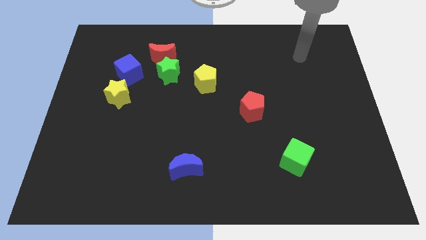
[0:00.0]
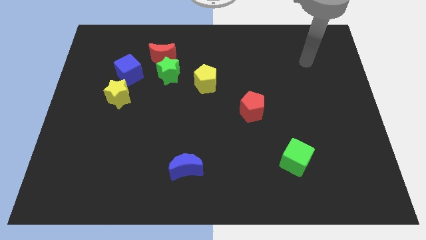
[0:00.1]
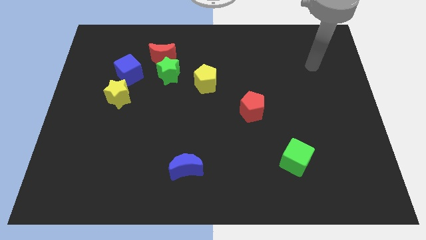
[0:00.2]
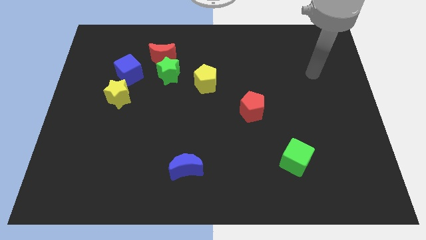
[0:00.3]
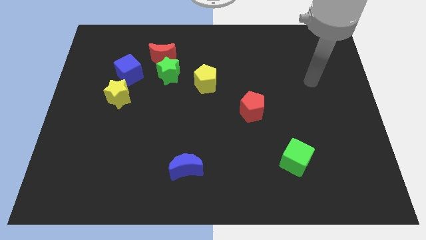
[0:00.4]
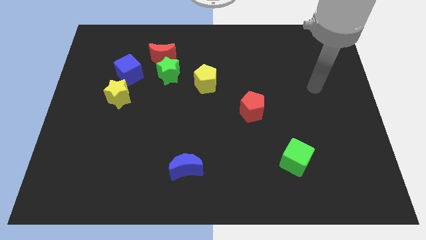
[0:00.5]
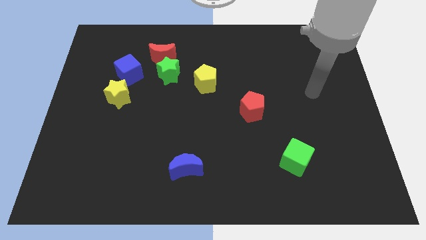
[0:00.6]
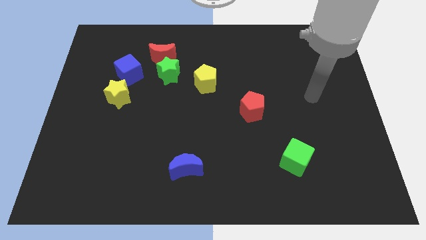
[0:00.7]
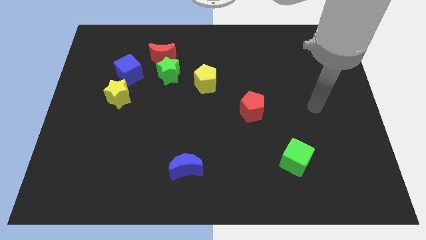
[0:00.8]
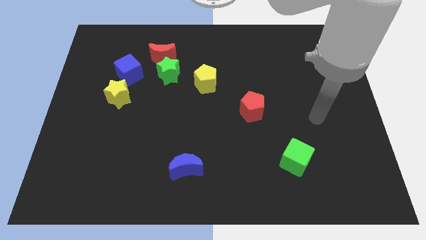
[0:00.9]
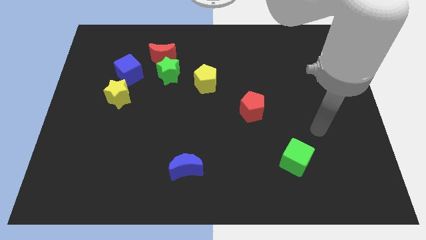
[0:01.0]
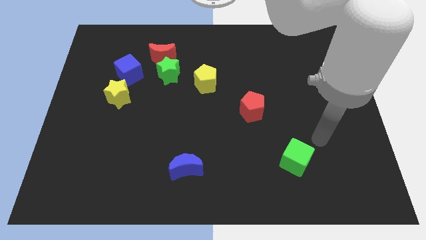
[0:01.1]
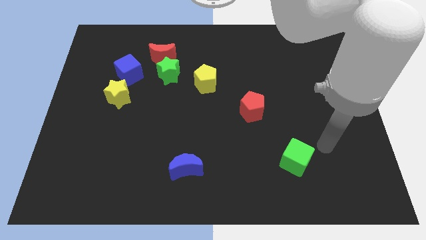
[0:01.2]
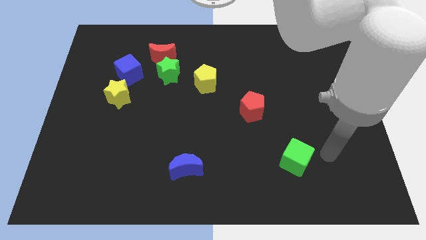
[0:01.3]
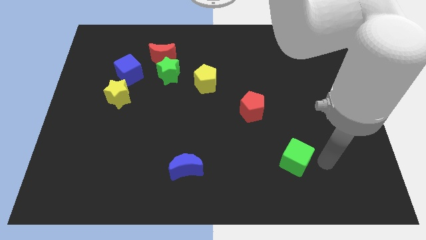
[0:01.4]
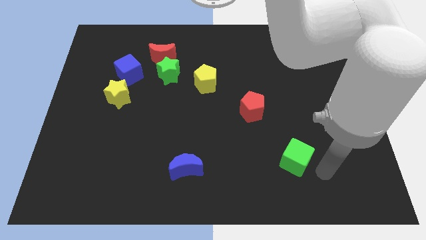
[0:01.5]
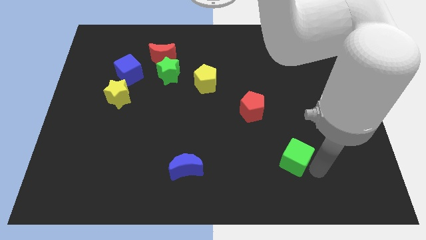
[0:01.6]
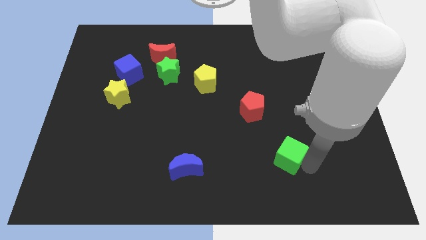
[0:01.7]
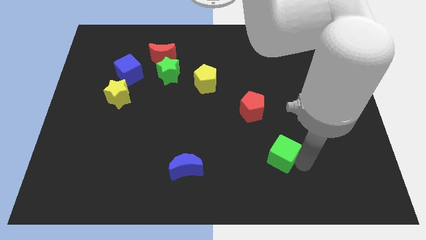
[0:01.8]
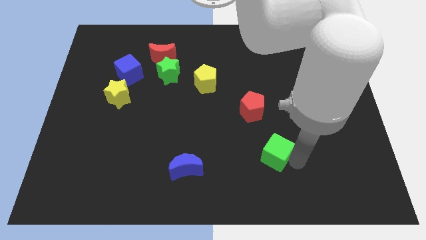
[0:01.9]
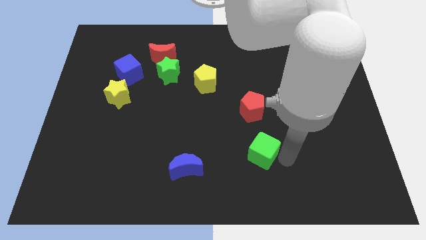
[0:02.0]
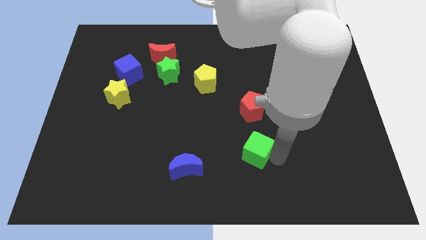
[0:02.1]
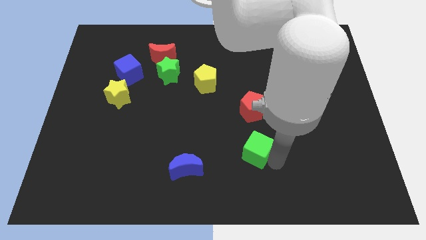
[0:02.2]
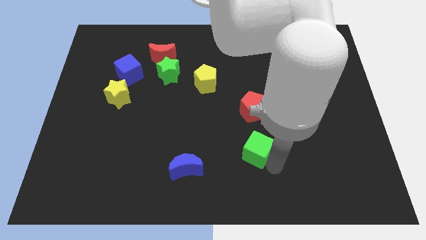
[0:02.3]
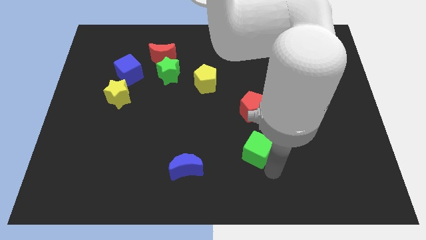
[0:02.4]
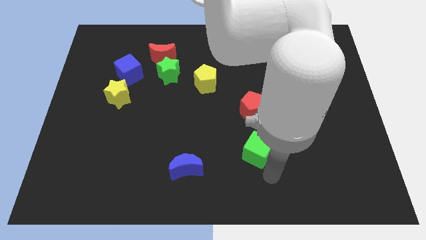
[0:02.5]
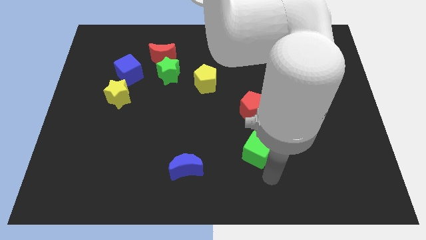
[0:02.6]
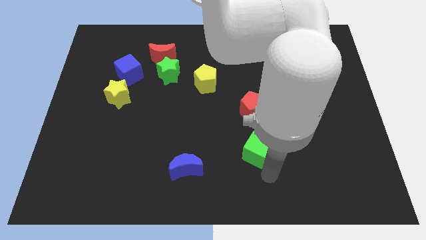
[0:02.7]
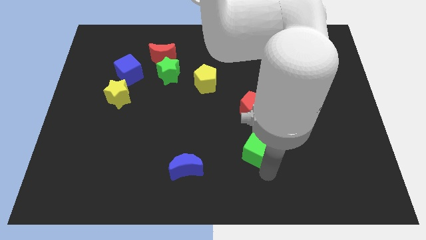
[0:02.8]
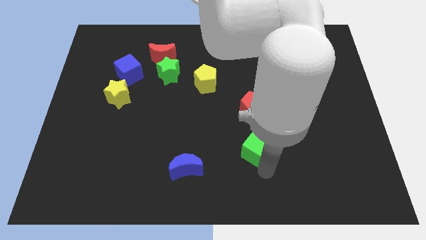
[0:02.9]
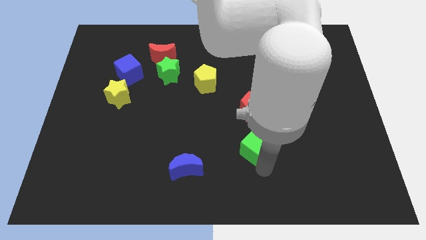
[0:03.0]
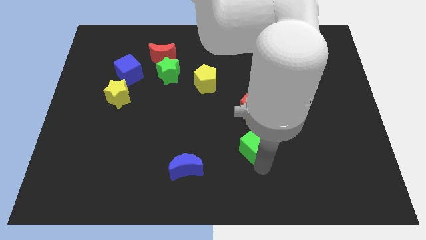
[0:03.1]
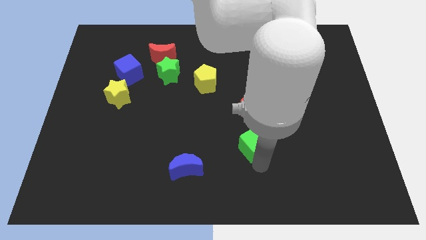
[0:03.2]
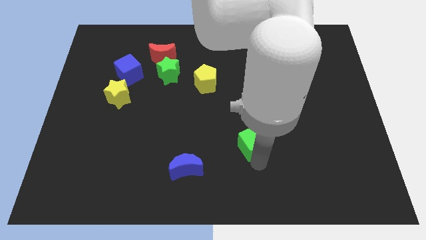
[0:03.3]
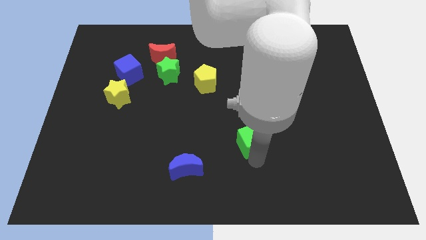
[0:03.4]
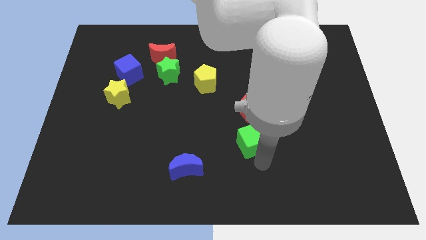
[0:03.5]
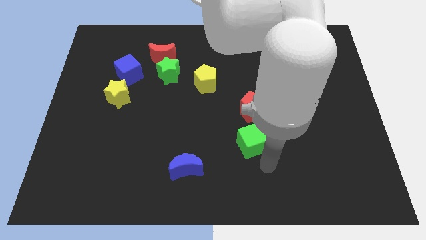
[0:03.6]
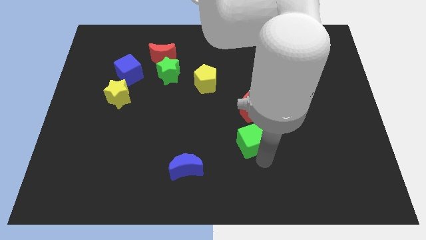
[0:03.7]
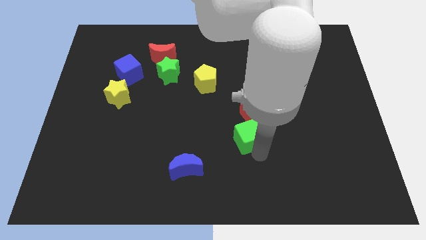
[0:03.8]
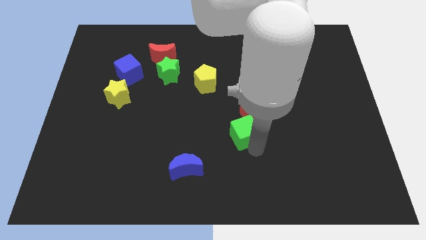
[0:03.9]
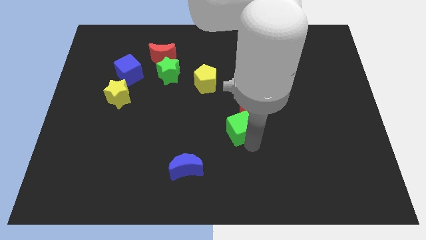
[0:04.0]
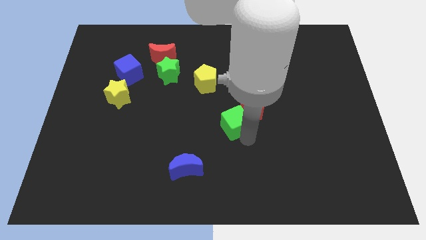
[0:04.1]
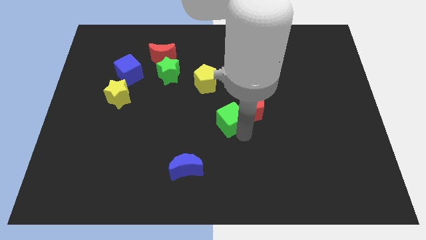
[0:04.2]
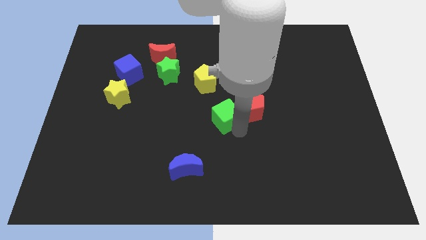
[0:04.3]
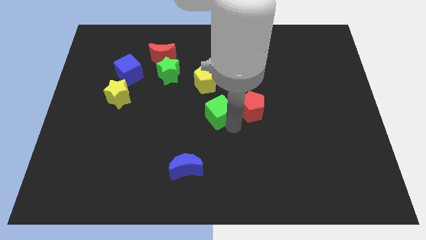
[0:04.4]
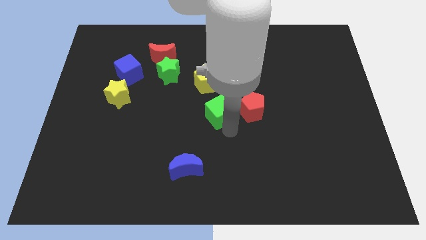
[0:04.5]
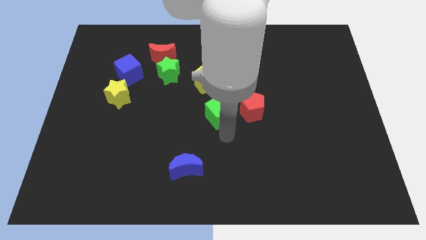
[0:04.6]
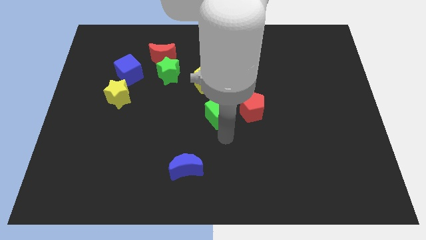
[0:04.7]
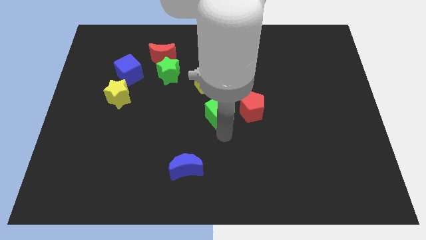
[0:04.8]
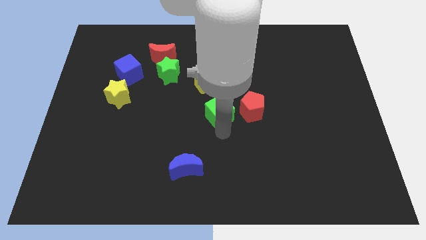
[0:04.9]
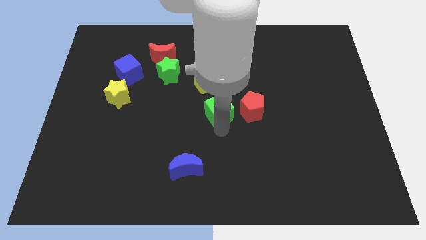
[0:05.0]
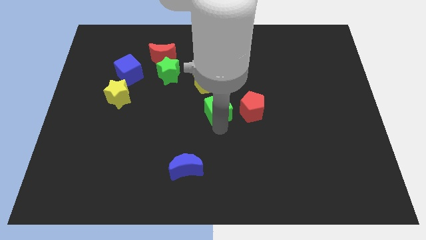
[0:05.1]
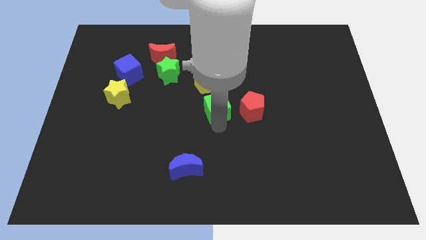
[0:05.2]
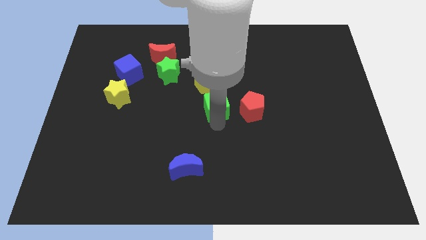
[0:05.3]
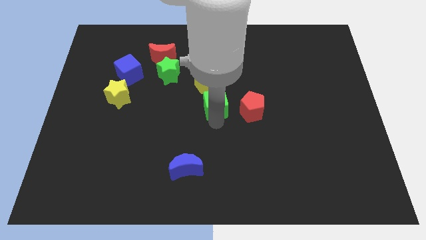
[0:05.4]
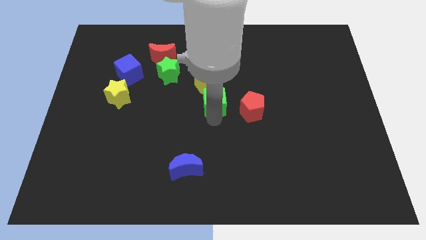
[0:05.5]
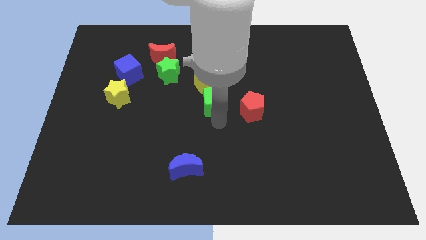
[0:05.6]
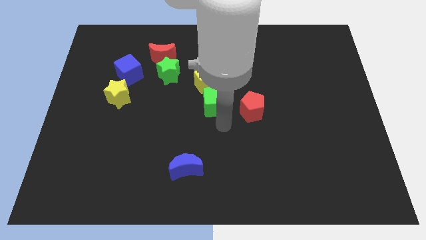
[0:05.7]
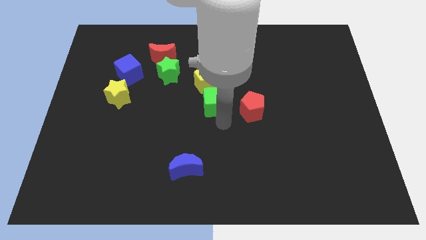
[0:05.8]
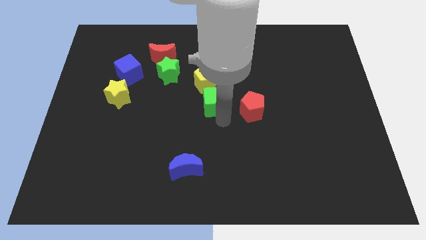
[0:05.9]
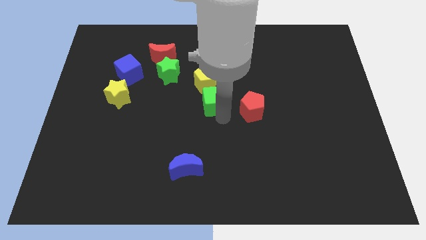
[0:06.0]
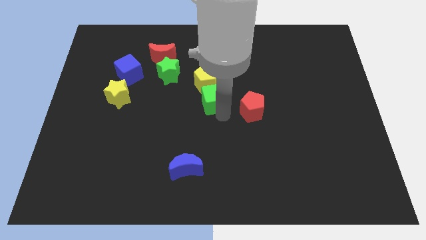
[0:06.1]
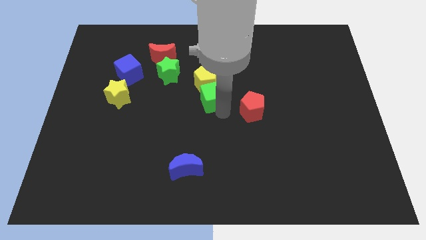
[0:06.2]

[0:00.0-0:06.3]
slide the green cube next to the yellow pentagon

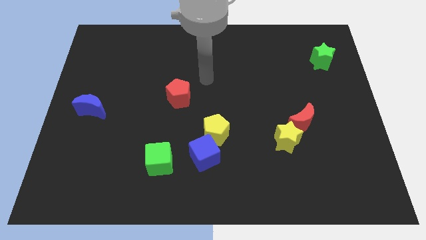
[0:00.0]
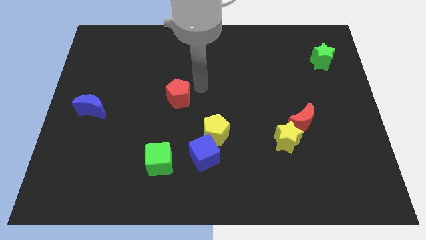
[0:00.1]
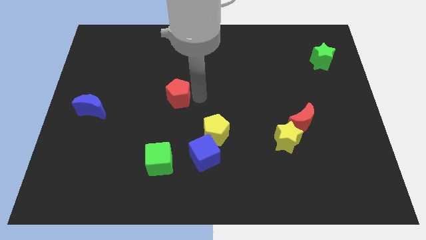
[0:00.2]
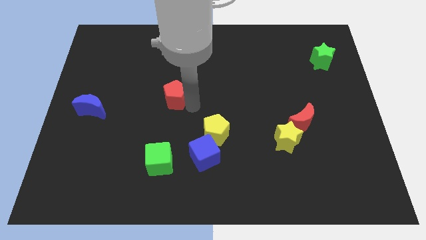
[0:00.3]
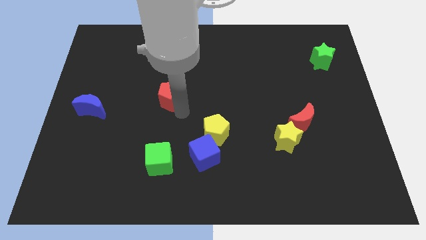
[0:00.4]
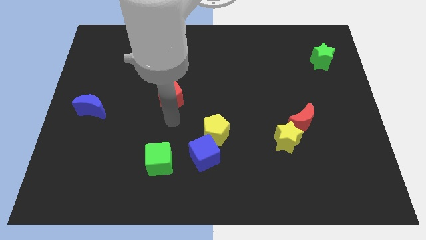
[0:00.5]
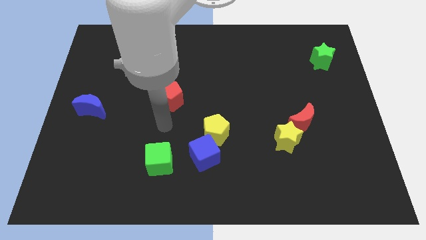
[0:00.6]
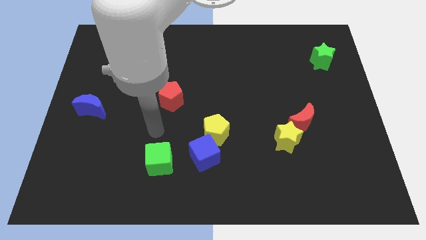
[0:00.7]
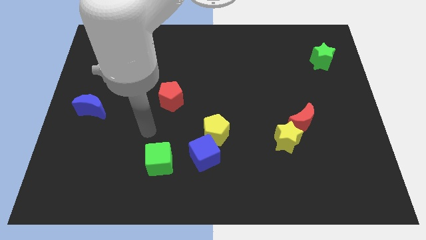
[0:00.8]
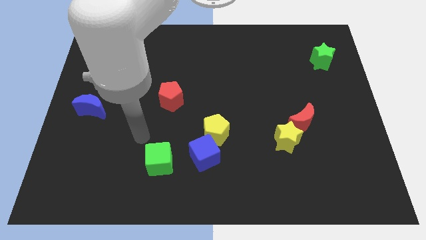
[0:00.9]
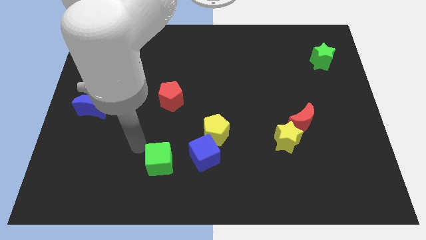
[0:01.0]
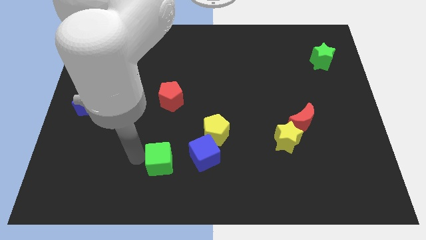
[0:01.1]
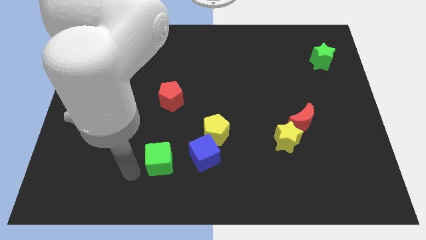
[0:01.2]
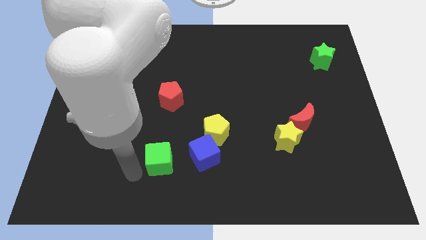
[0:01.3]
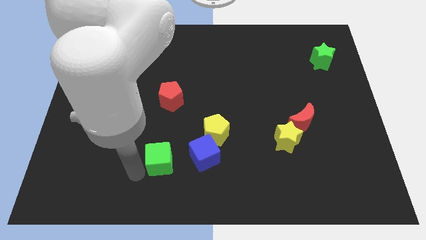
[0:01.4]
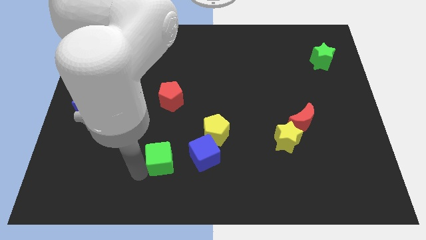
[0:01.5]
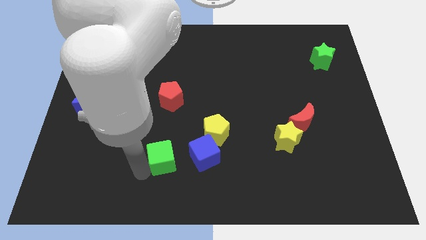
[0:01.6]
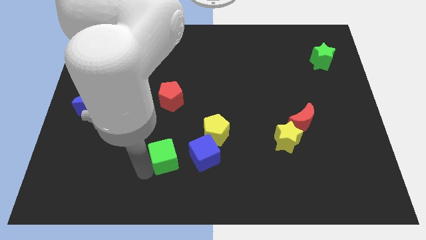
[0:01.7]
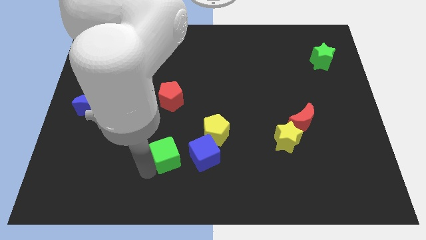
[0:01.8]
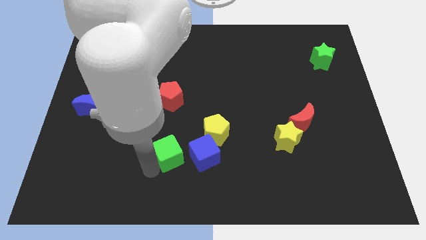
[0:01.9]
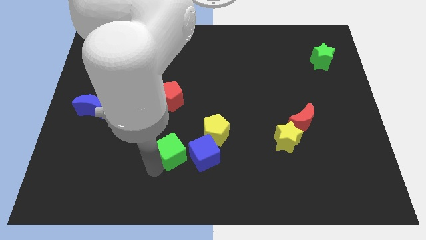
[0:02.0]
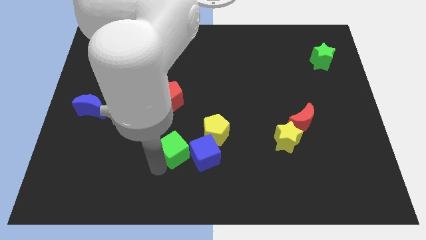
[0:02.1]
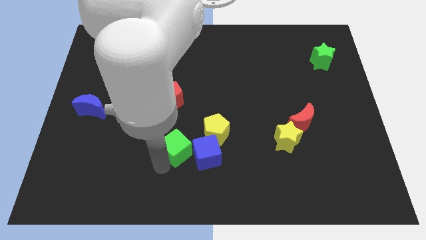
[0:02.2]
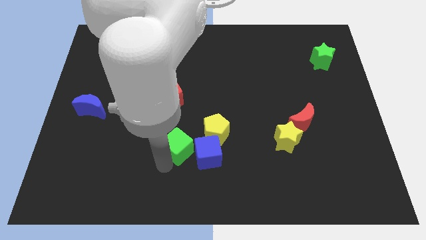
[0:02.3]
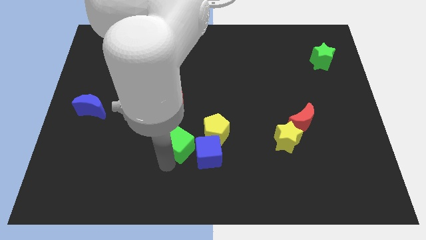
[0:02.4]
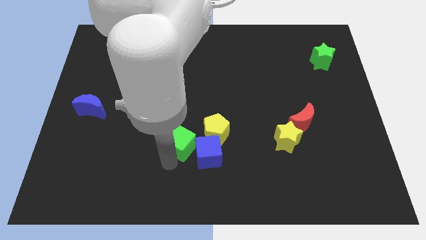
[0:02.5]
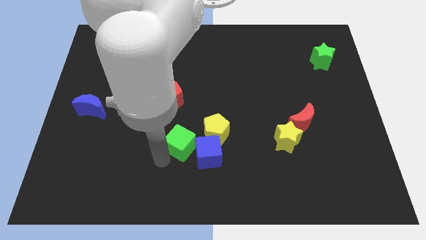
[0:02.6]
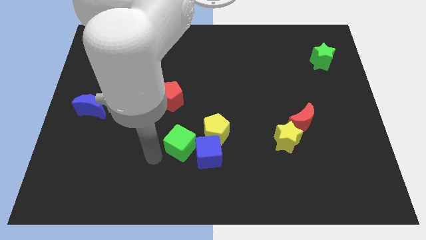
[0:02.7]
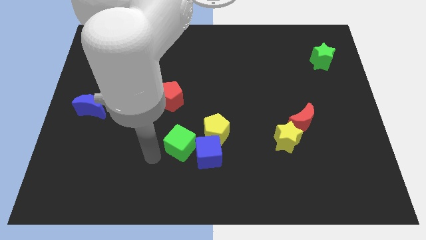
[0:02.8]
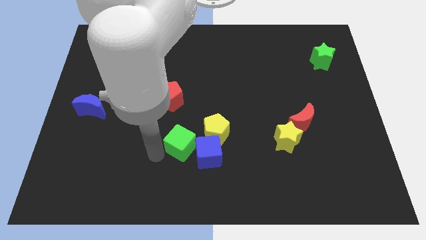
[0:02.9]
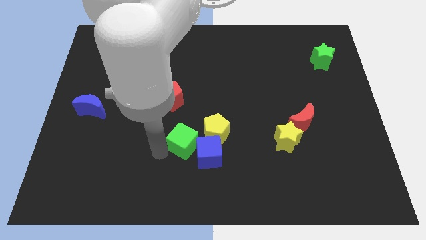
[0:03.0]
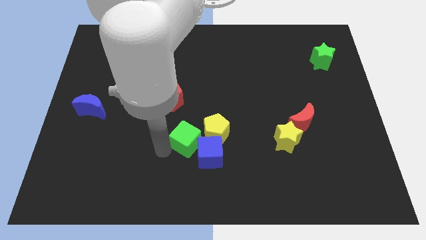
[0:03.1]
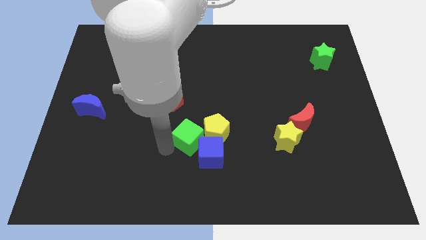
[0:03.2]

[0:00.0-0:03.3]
slide the green cube close to the yellow pentagon
